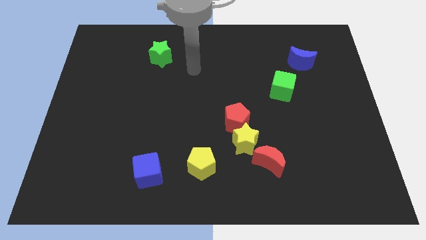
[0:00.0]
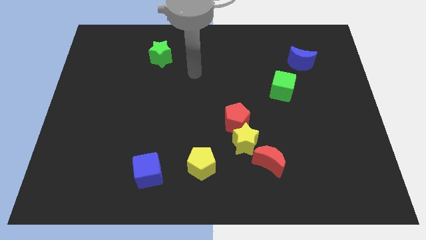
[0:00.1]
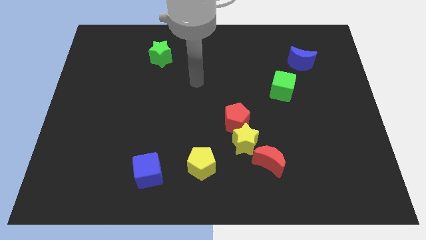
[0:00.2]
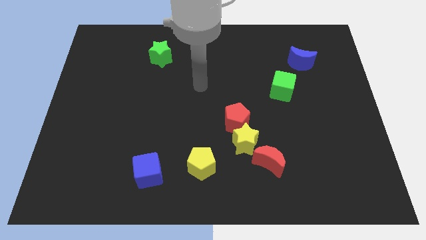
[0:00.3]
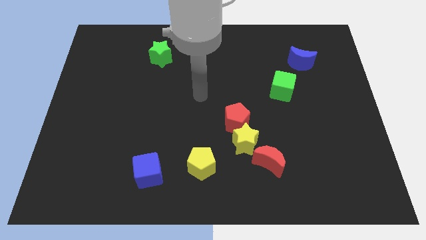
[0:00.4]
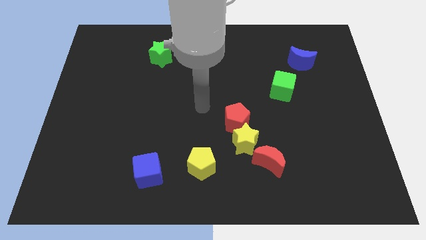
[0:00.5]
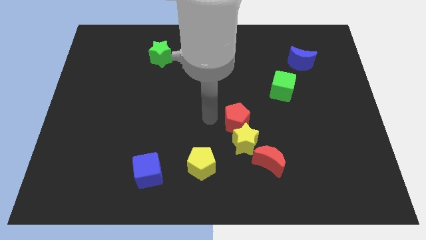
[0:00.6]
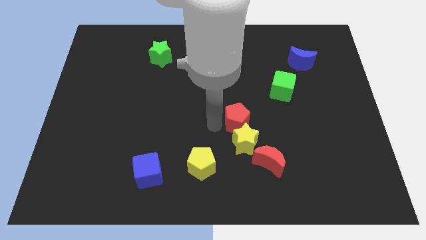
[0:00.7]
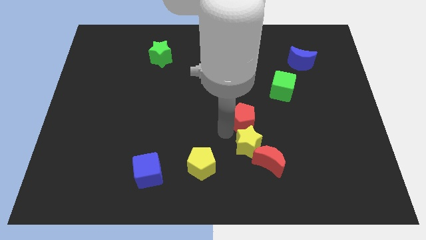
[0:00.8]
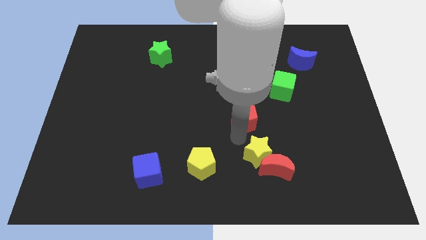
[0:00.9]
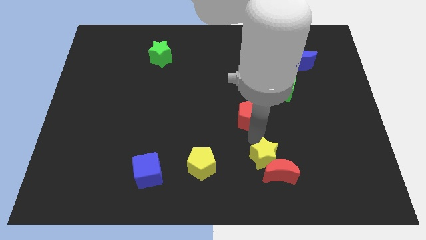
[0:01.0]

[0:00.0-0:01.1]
pull the red pentagon apart from the yellow star

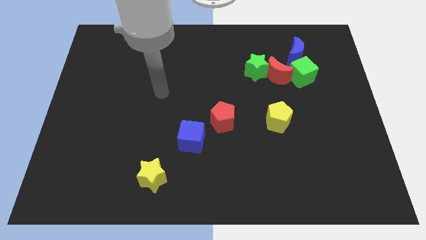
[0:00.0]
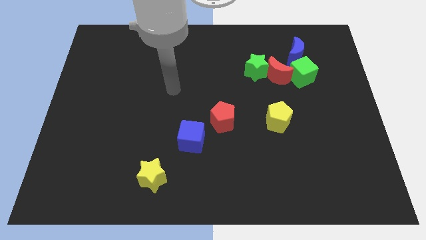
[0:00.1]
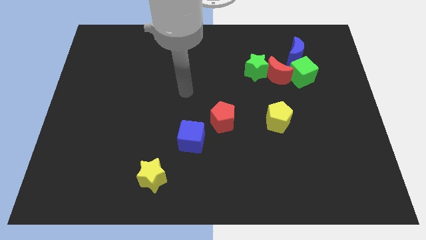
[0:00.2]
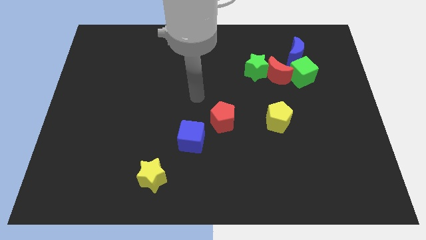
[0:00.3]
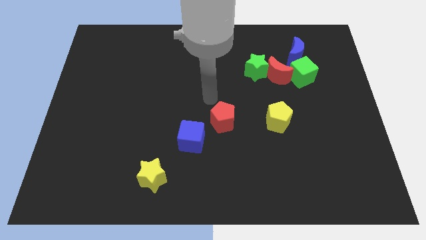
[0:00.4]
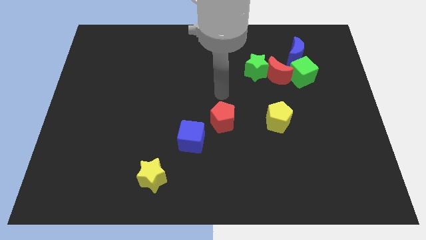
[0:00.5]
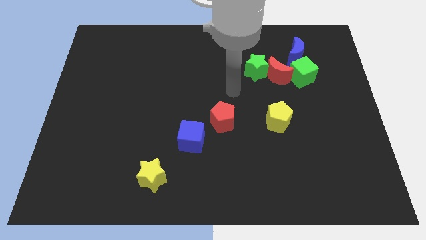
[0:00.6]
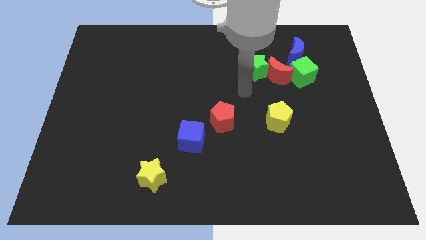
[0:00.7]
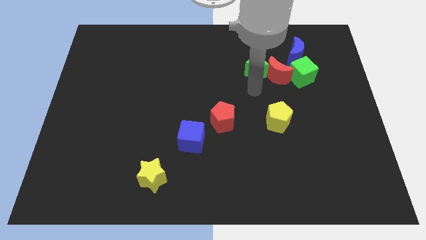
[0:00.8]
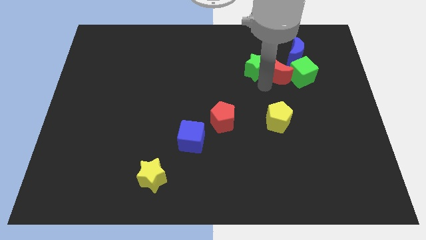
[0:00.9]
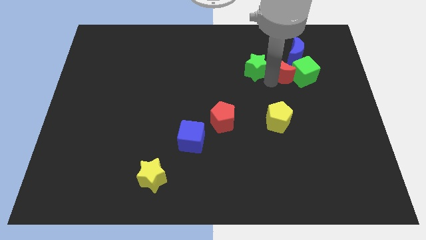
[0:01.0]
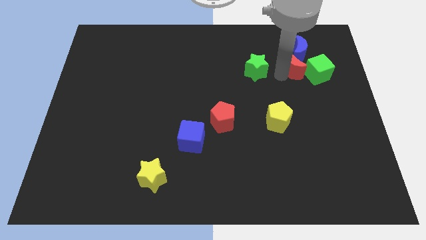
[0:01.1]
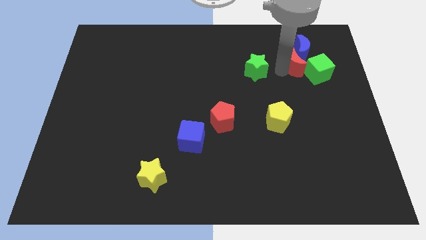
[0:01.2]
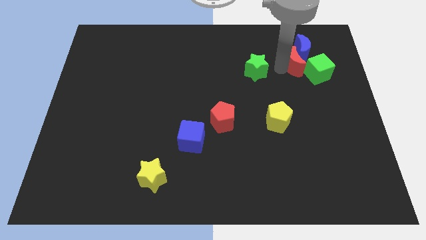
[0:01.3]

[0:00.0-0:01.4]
separate the green star from the red moon

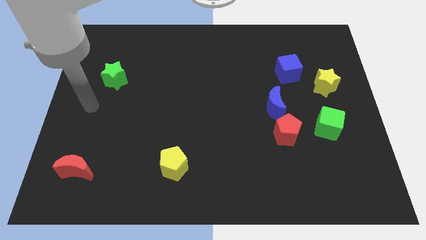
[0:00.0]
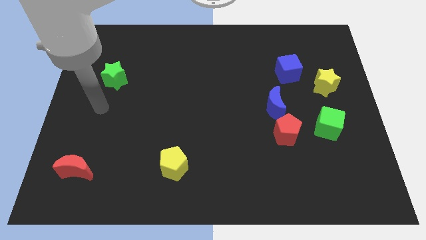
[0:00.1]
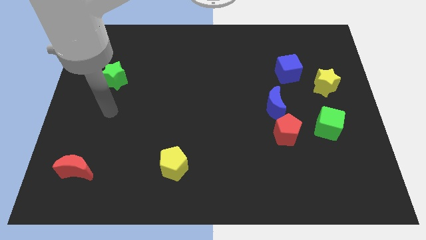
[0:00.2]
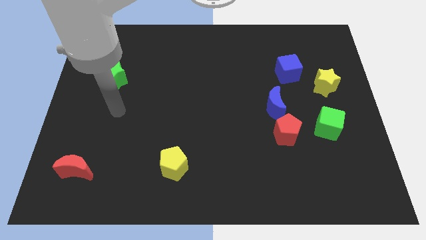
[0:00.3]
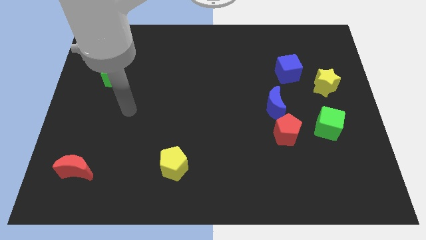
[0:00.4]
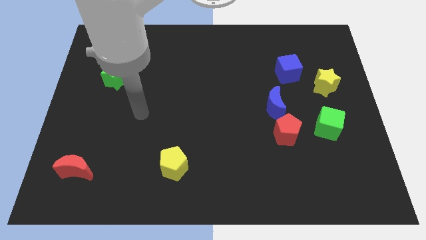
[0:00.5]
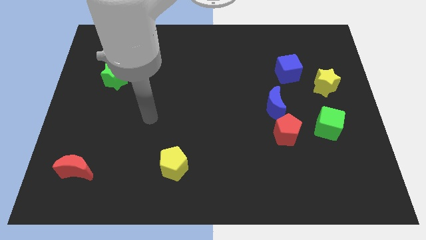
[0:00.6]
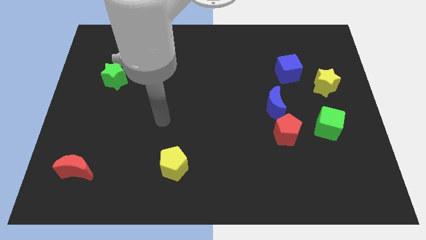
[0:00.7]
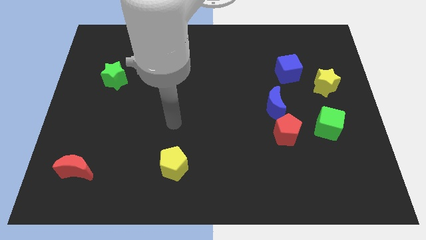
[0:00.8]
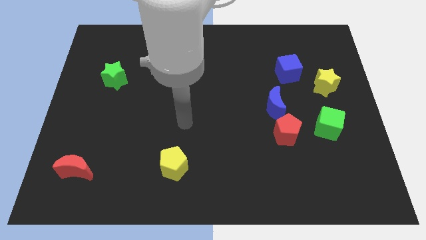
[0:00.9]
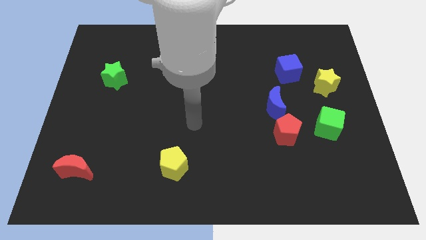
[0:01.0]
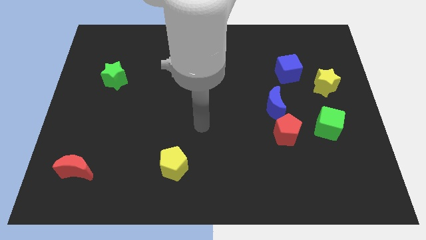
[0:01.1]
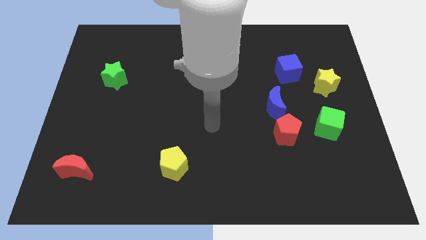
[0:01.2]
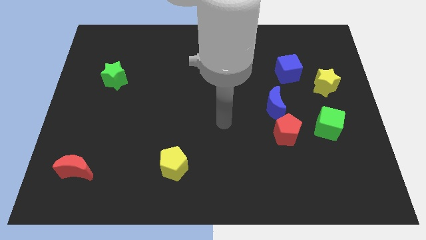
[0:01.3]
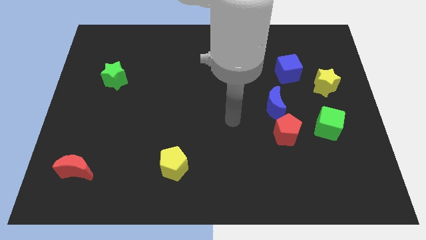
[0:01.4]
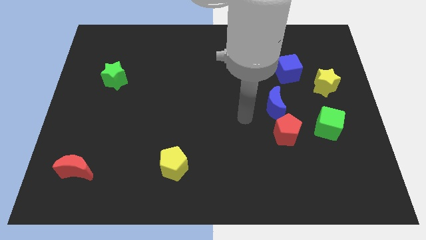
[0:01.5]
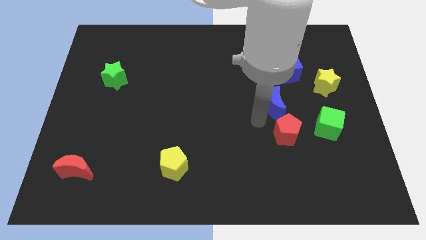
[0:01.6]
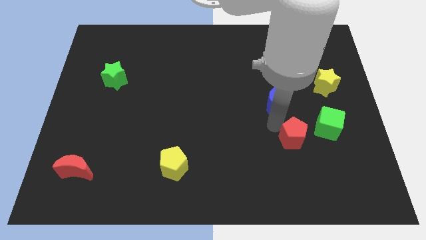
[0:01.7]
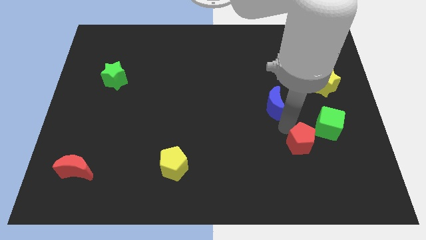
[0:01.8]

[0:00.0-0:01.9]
separate the blue moon from the red pentagon

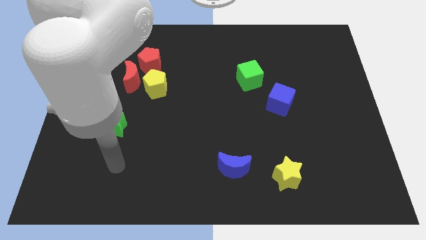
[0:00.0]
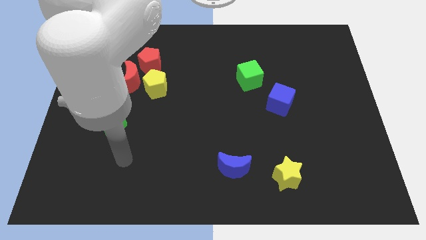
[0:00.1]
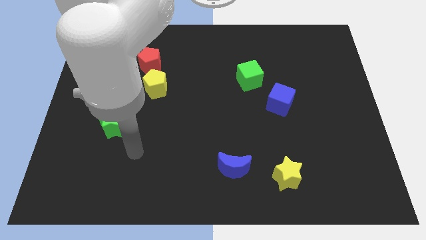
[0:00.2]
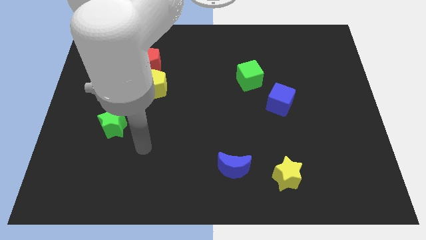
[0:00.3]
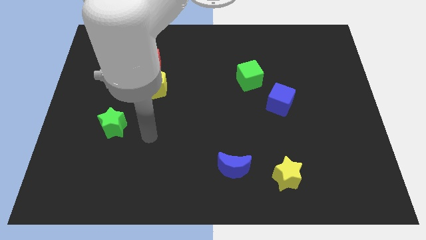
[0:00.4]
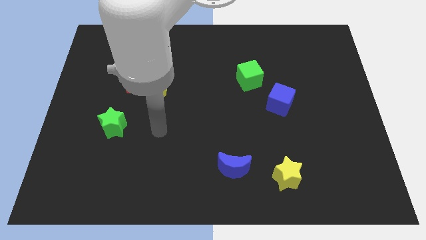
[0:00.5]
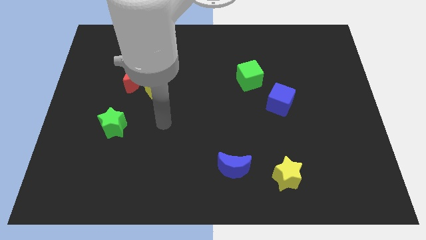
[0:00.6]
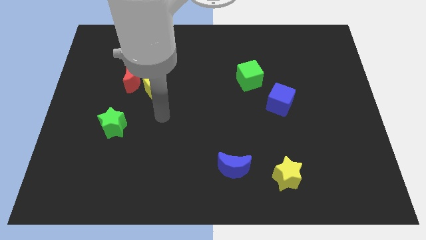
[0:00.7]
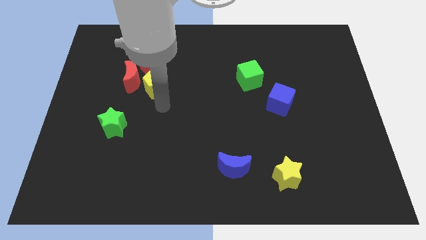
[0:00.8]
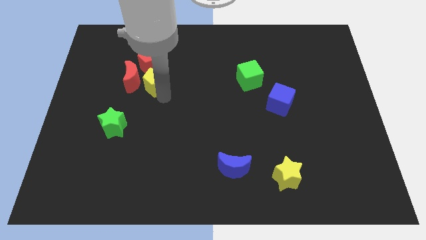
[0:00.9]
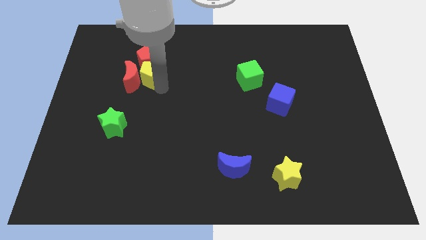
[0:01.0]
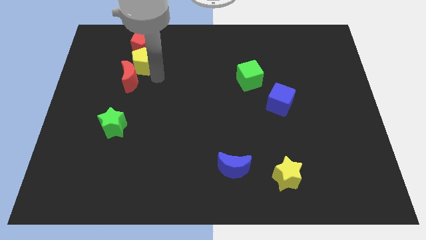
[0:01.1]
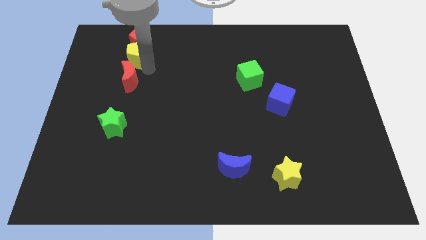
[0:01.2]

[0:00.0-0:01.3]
move the red moon away from the red pentagon and yellow pentagon

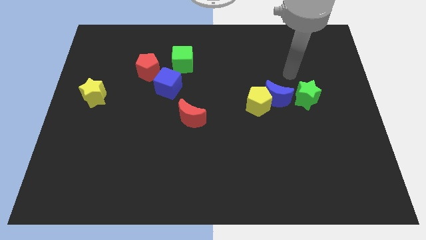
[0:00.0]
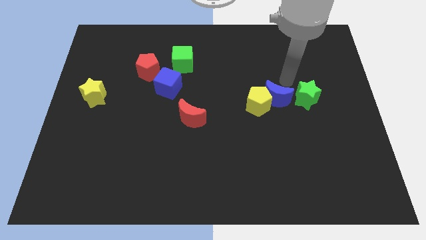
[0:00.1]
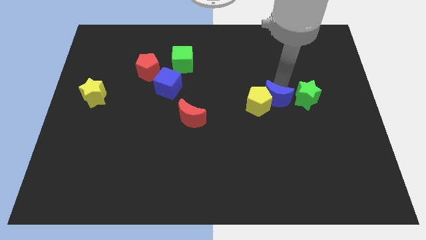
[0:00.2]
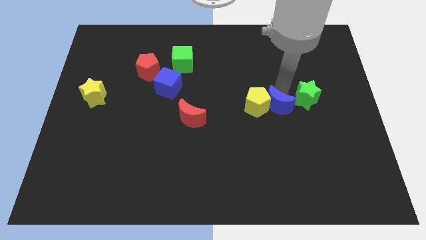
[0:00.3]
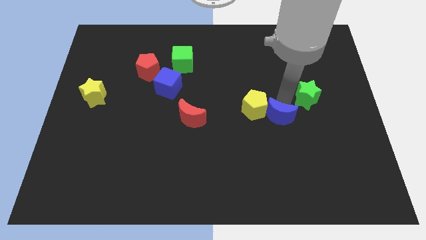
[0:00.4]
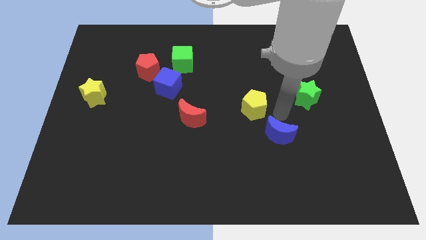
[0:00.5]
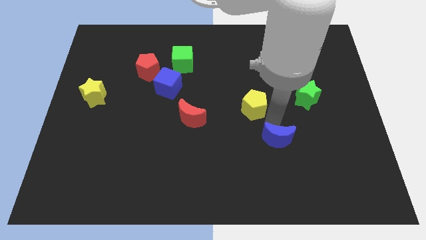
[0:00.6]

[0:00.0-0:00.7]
pull the yellow pentagon apart from the blue moon

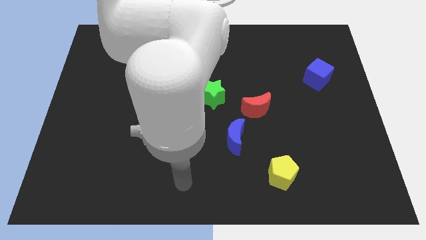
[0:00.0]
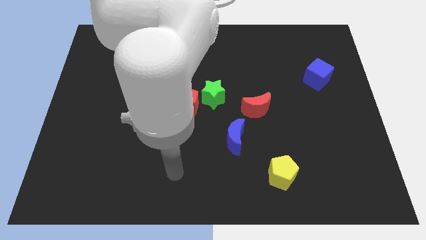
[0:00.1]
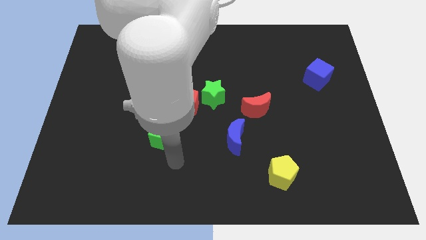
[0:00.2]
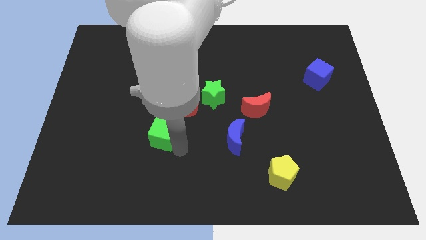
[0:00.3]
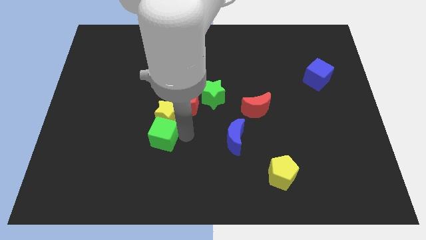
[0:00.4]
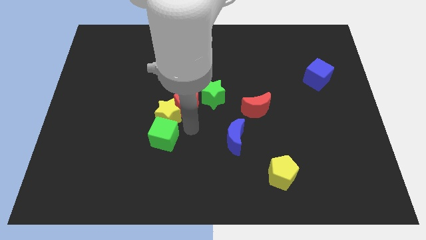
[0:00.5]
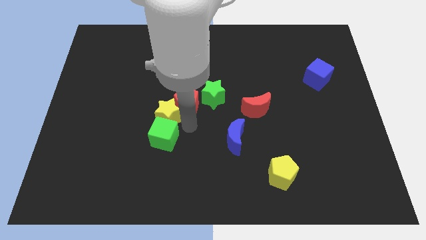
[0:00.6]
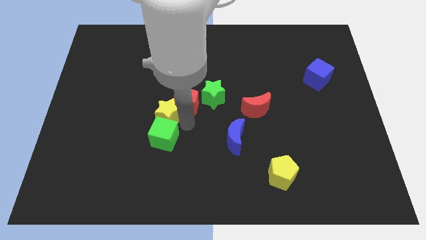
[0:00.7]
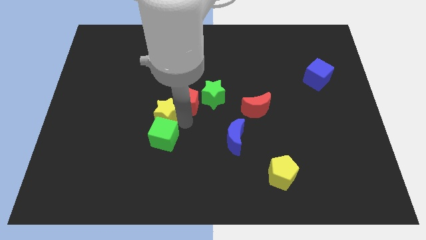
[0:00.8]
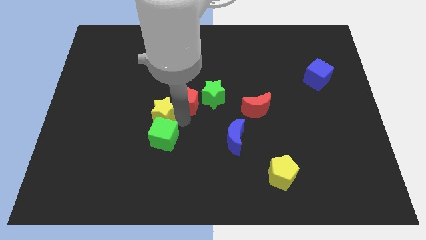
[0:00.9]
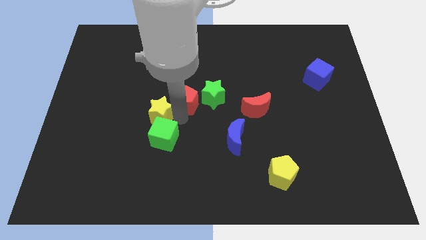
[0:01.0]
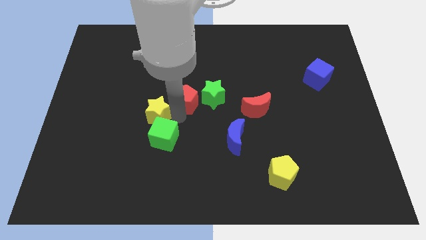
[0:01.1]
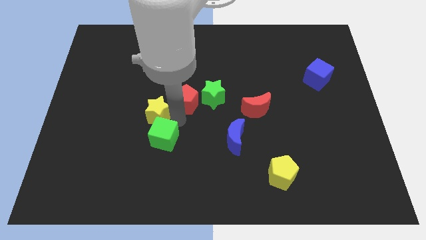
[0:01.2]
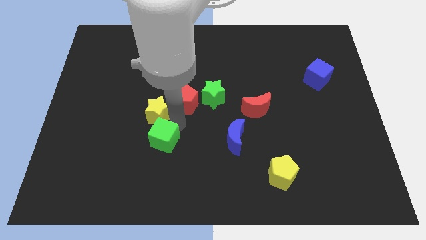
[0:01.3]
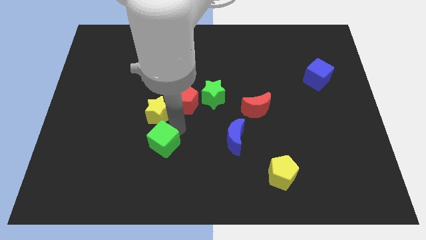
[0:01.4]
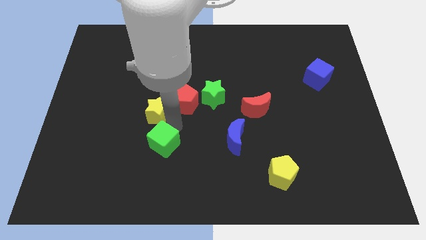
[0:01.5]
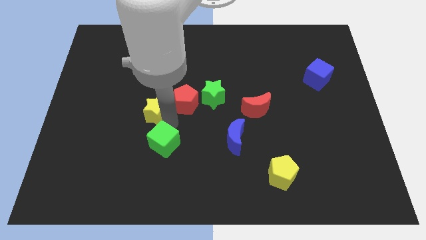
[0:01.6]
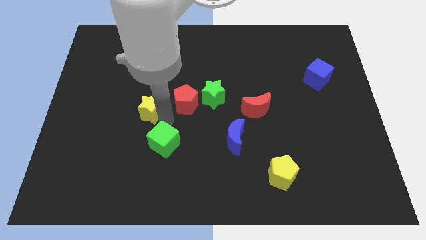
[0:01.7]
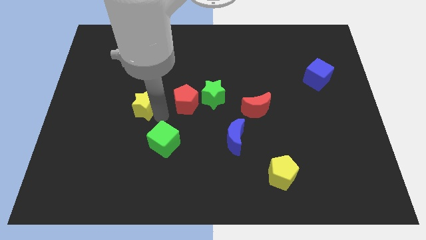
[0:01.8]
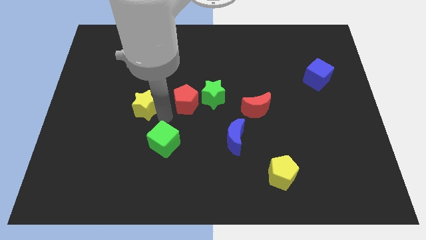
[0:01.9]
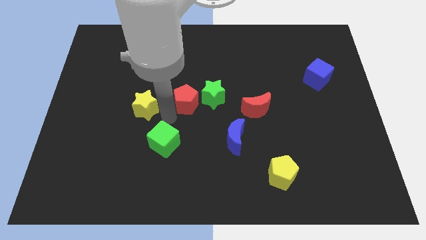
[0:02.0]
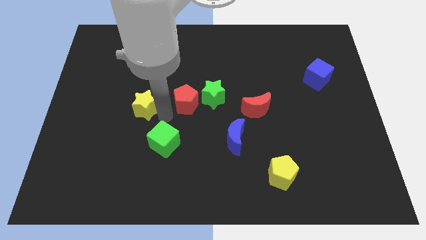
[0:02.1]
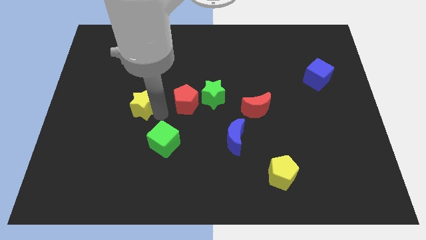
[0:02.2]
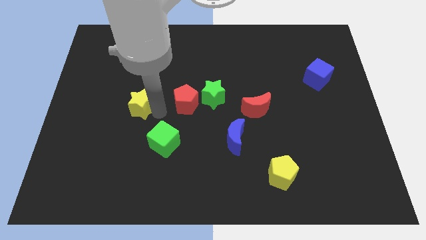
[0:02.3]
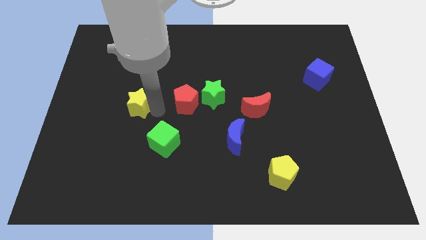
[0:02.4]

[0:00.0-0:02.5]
move the yellow star away from the red pentagon and green cube

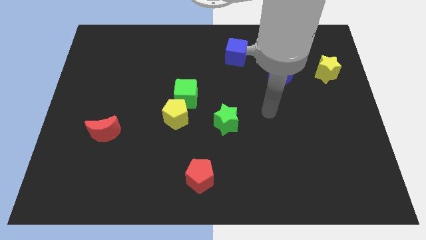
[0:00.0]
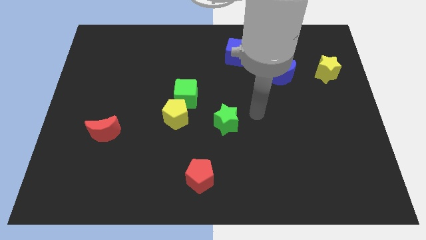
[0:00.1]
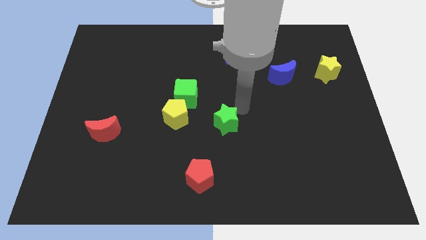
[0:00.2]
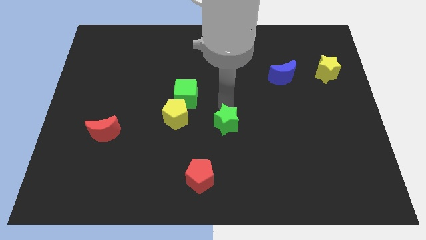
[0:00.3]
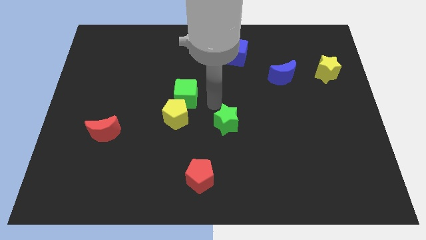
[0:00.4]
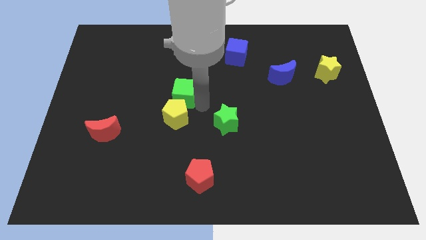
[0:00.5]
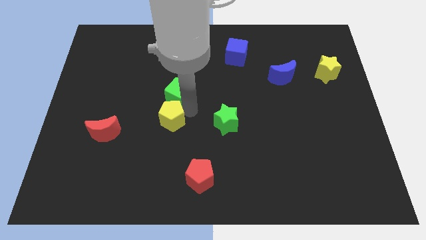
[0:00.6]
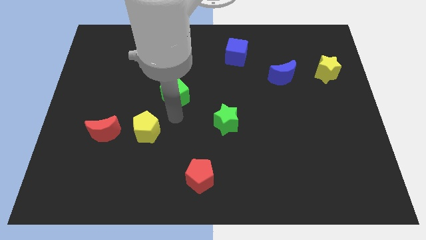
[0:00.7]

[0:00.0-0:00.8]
pull the green cube apart from the yellow pentagon
